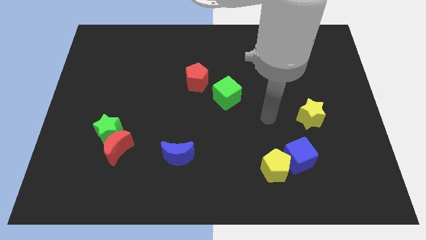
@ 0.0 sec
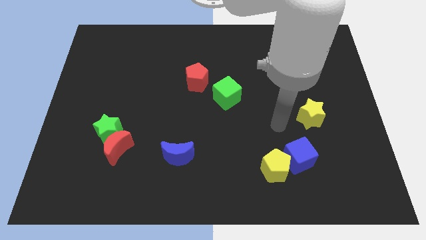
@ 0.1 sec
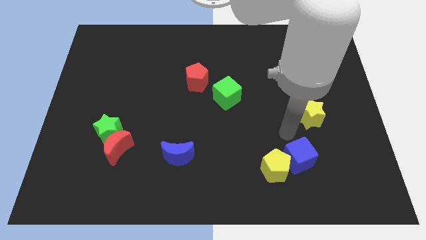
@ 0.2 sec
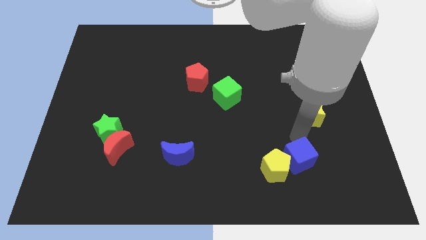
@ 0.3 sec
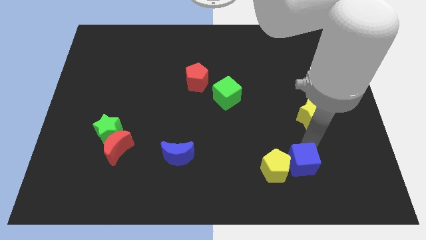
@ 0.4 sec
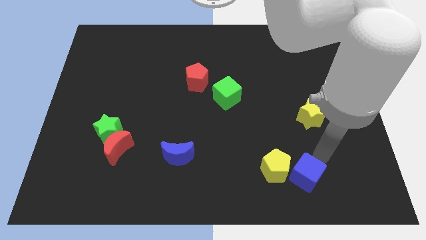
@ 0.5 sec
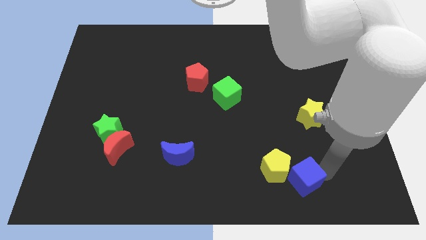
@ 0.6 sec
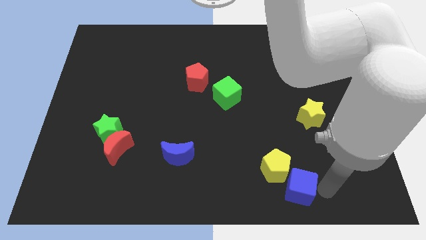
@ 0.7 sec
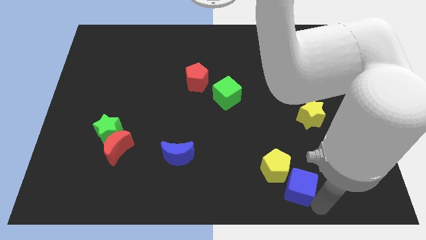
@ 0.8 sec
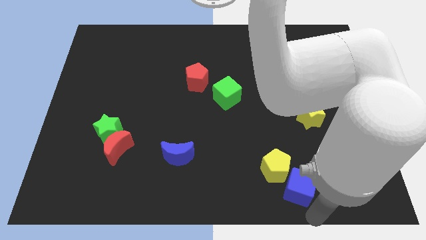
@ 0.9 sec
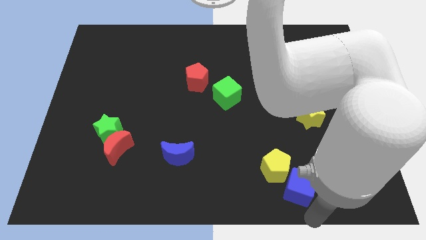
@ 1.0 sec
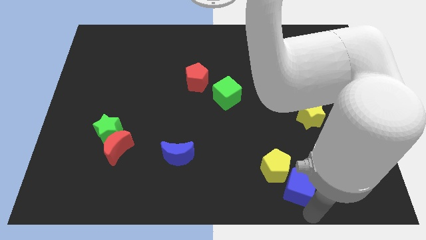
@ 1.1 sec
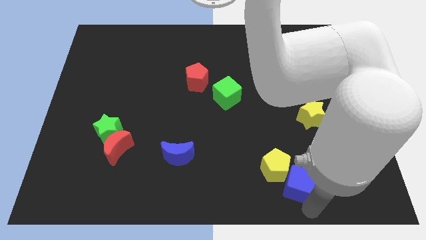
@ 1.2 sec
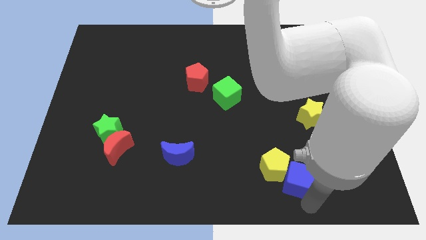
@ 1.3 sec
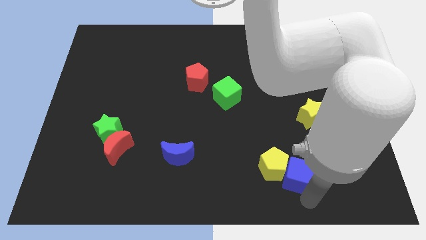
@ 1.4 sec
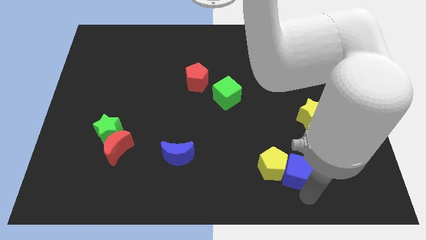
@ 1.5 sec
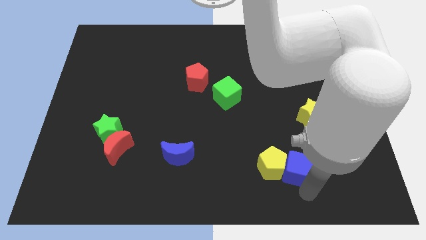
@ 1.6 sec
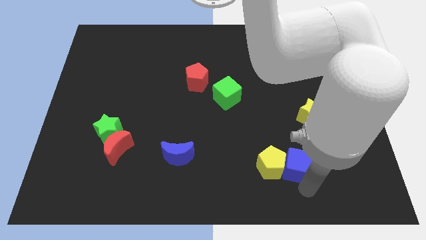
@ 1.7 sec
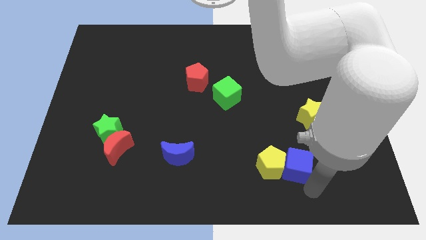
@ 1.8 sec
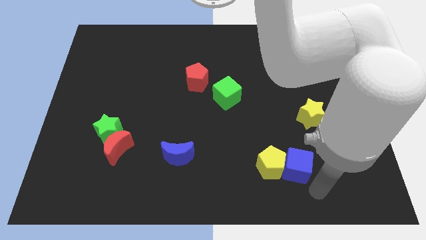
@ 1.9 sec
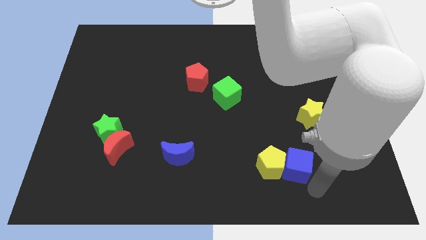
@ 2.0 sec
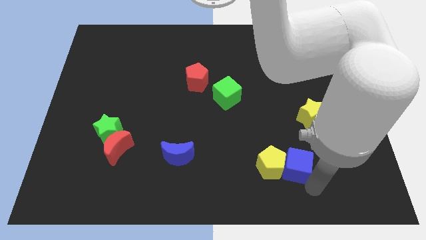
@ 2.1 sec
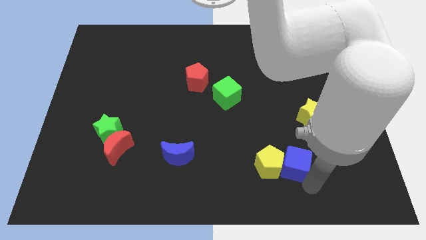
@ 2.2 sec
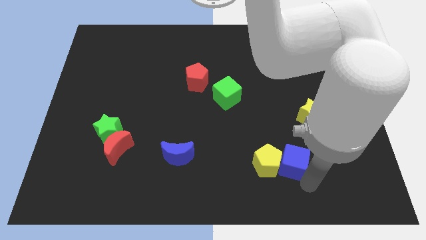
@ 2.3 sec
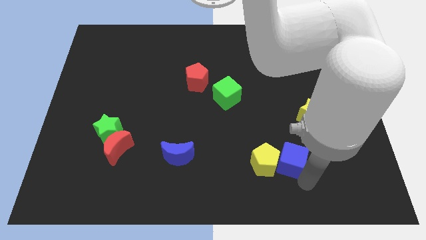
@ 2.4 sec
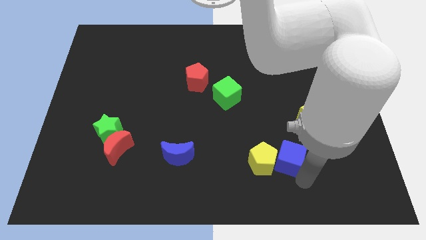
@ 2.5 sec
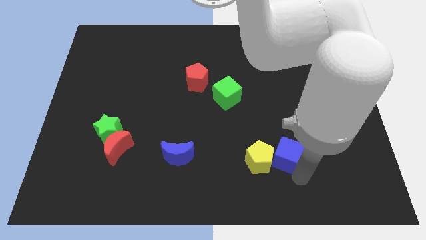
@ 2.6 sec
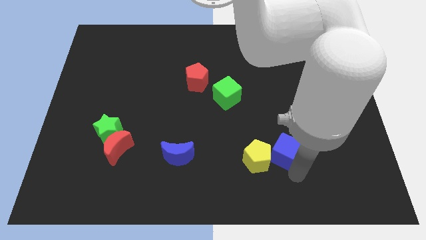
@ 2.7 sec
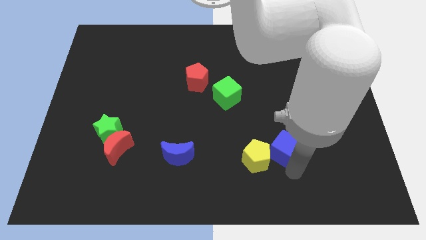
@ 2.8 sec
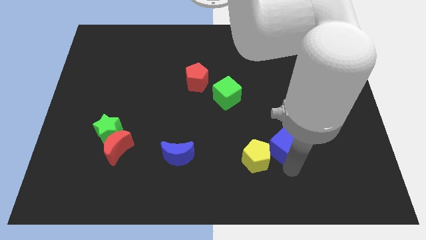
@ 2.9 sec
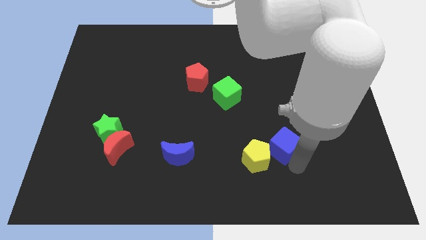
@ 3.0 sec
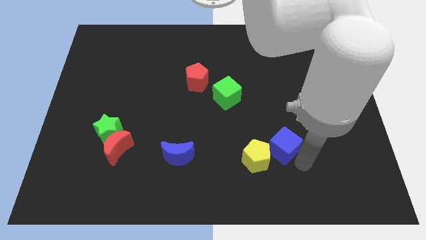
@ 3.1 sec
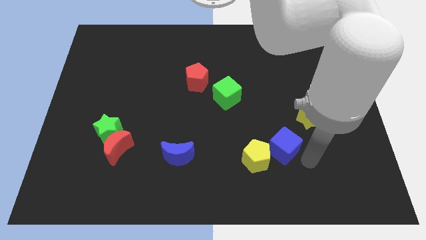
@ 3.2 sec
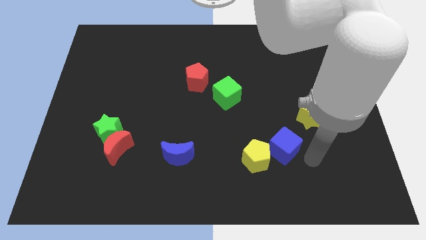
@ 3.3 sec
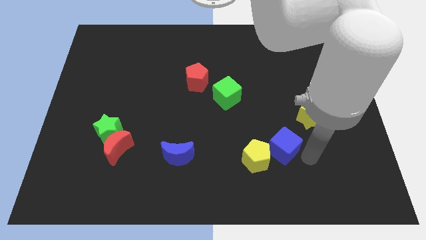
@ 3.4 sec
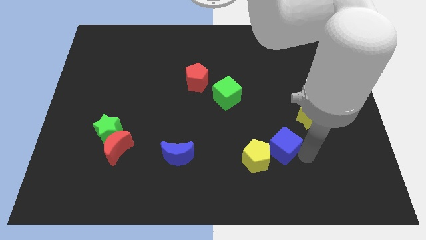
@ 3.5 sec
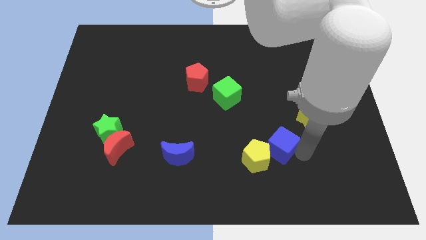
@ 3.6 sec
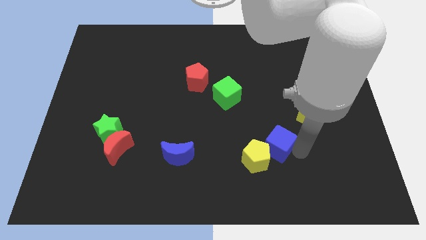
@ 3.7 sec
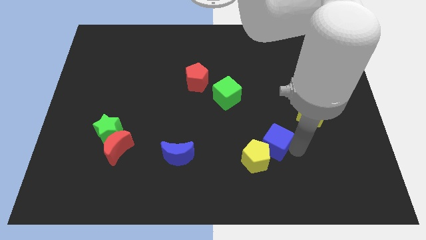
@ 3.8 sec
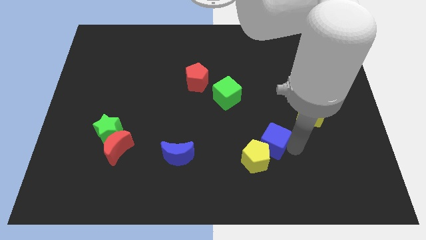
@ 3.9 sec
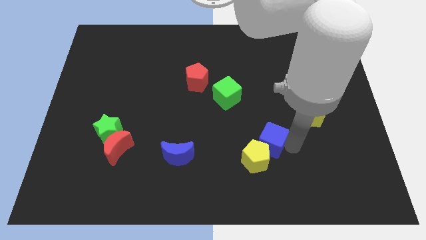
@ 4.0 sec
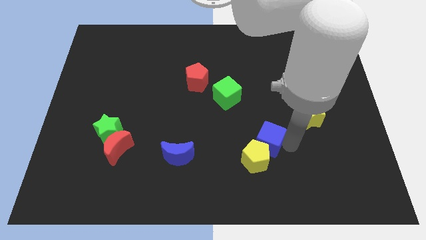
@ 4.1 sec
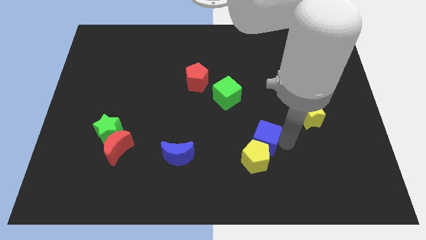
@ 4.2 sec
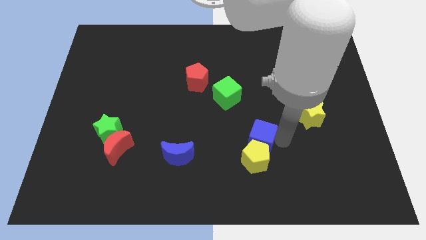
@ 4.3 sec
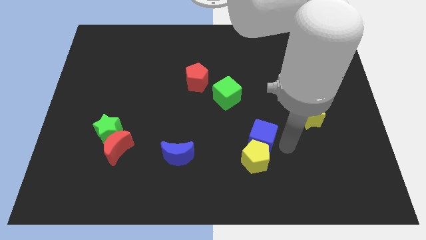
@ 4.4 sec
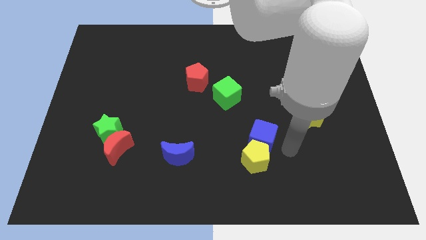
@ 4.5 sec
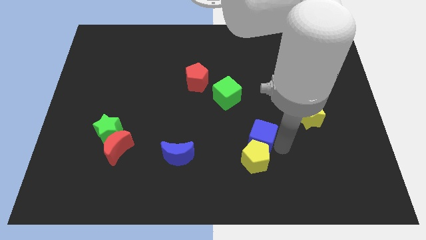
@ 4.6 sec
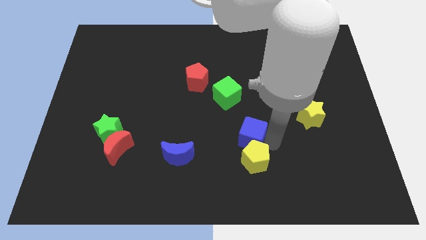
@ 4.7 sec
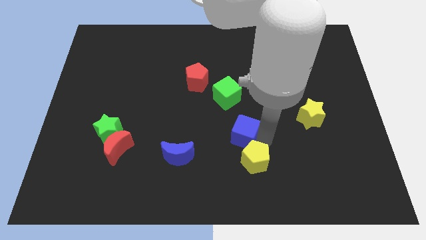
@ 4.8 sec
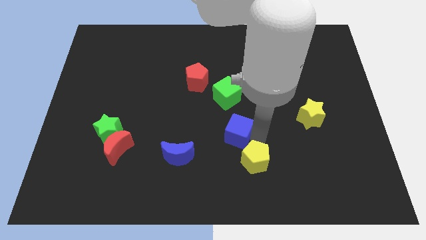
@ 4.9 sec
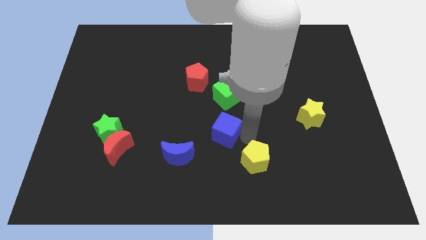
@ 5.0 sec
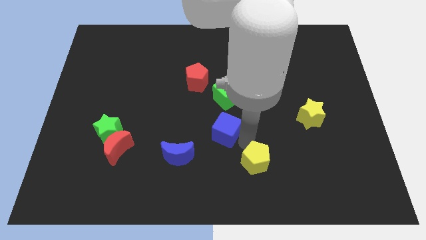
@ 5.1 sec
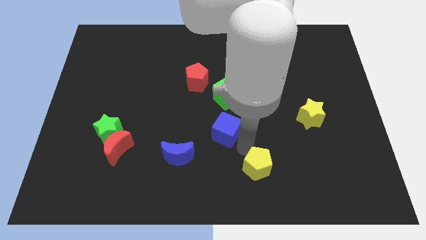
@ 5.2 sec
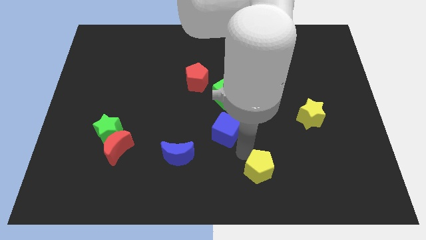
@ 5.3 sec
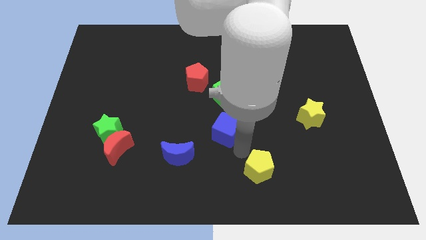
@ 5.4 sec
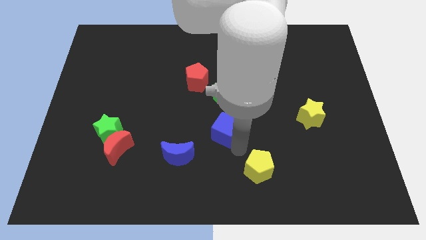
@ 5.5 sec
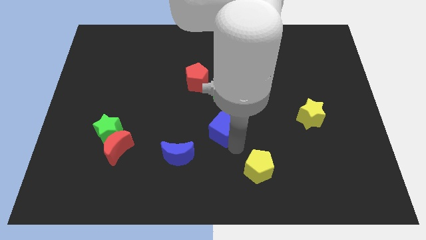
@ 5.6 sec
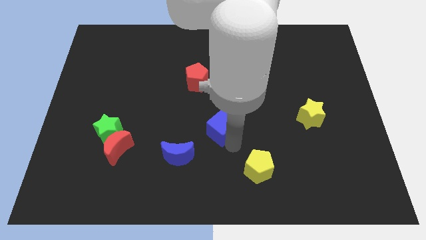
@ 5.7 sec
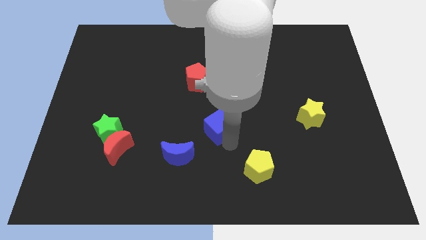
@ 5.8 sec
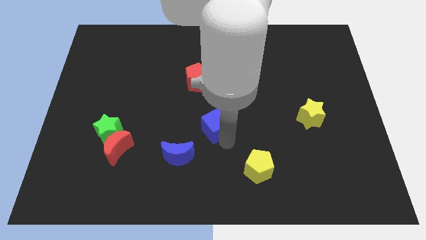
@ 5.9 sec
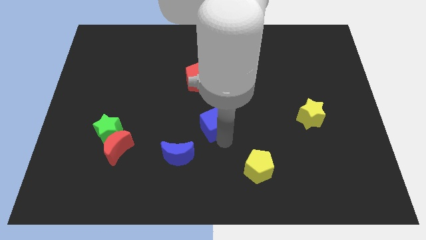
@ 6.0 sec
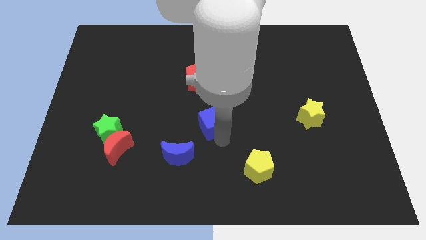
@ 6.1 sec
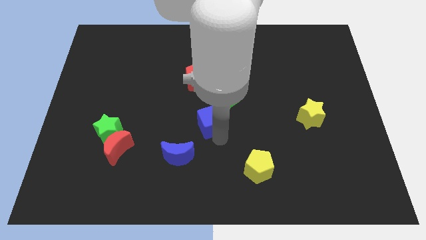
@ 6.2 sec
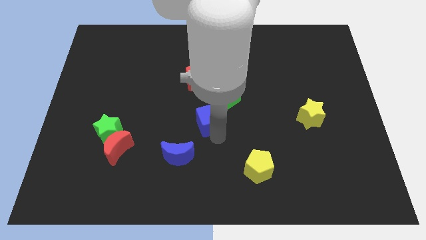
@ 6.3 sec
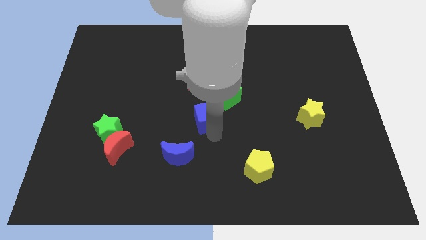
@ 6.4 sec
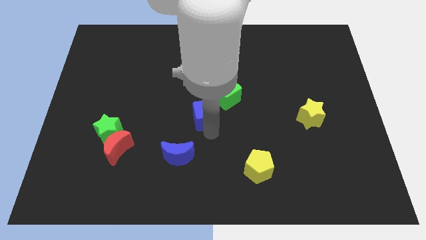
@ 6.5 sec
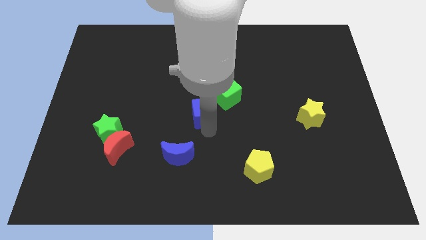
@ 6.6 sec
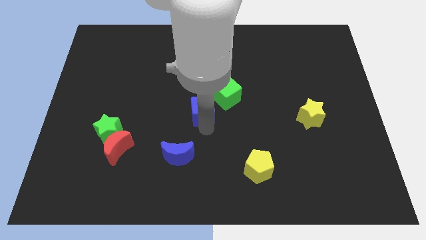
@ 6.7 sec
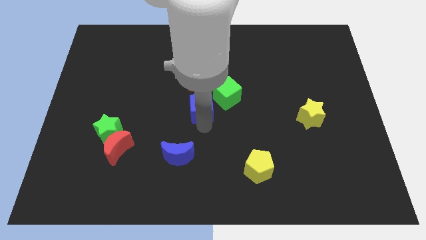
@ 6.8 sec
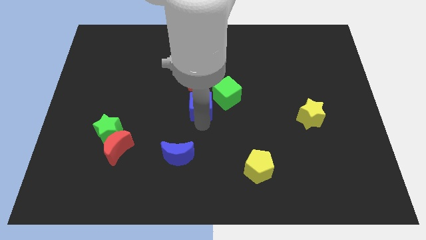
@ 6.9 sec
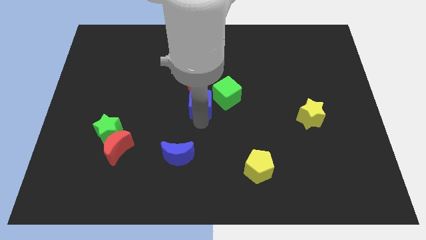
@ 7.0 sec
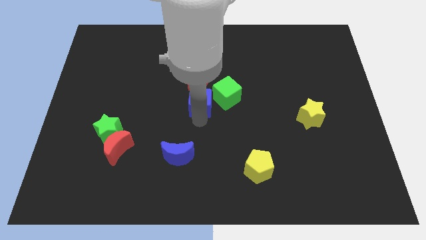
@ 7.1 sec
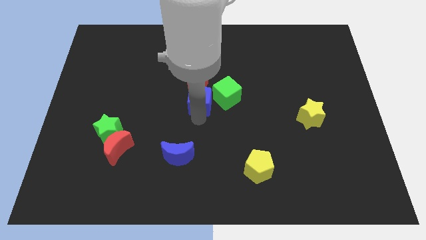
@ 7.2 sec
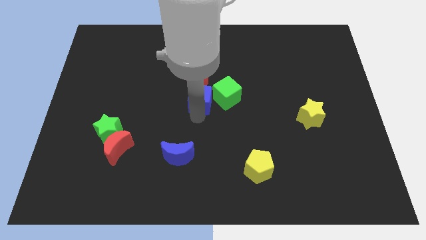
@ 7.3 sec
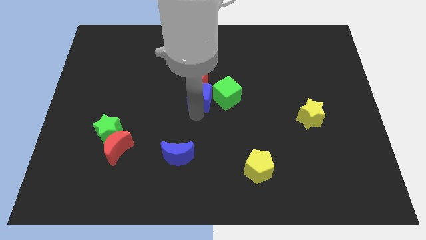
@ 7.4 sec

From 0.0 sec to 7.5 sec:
slide the blue cube towards the red pentagon
